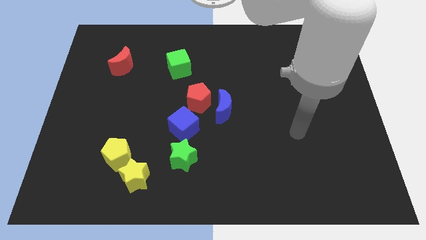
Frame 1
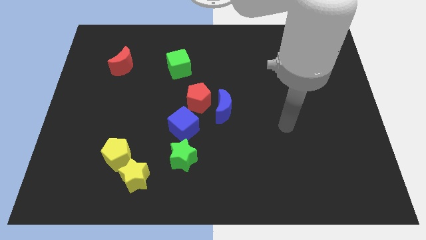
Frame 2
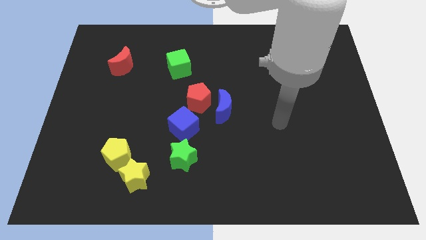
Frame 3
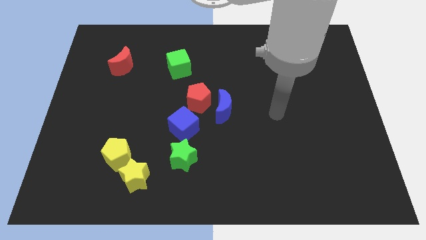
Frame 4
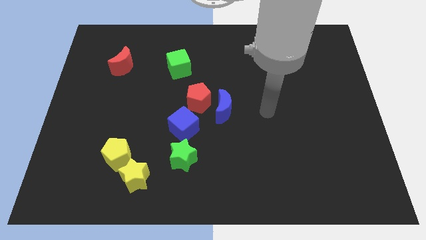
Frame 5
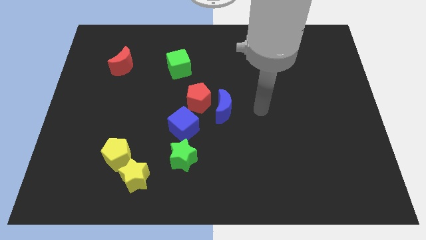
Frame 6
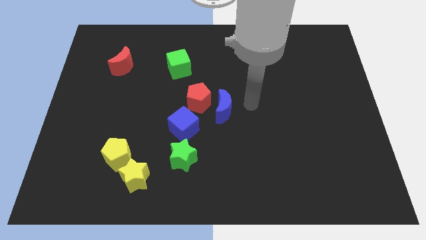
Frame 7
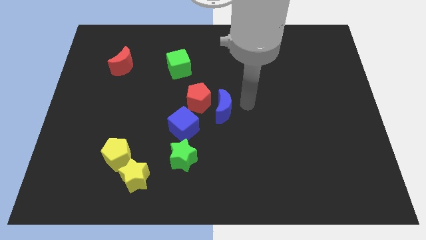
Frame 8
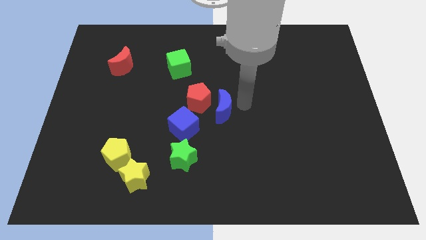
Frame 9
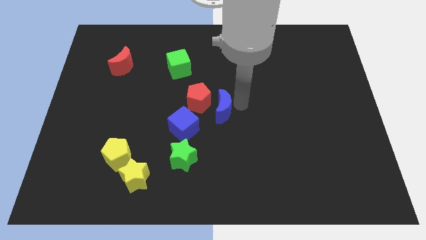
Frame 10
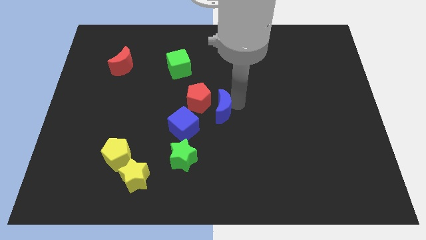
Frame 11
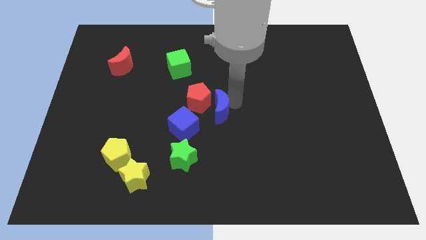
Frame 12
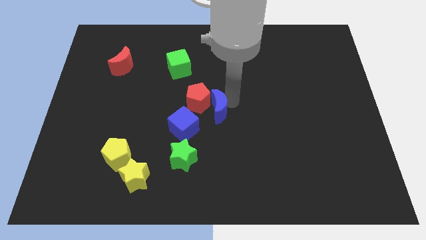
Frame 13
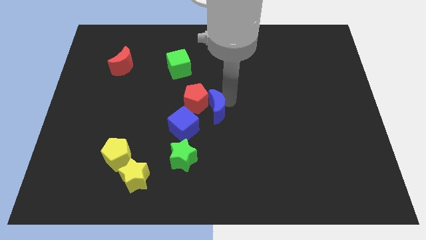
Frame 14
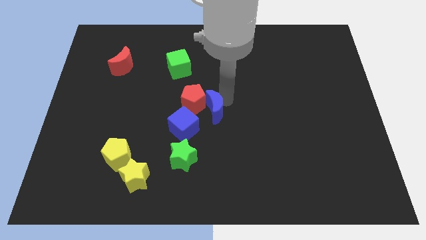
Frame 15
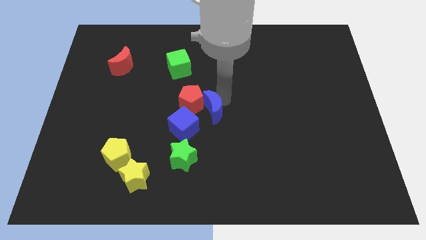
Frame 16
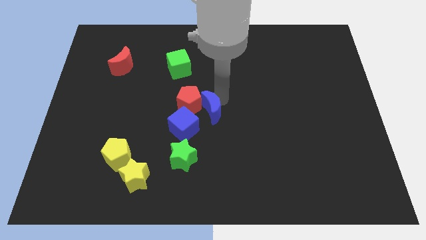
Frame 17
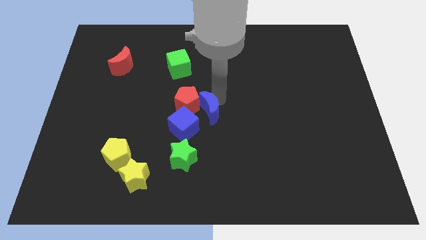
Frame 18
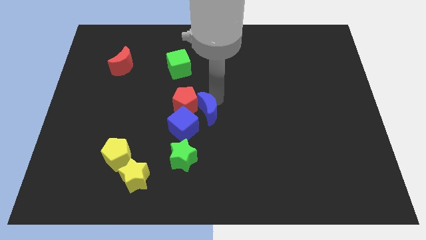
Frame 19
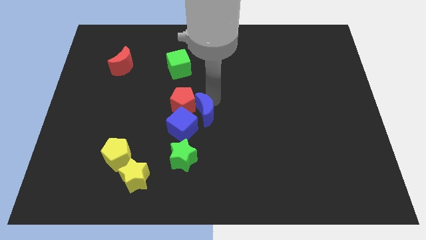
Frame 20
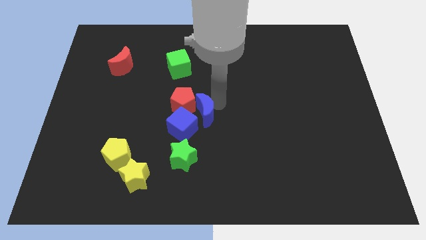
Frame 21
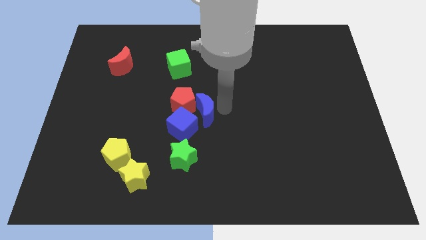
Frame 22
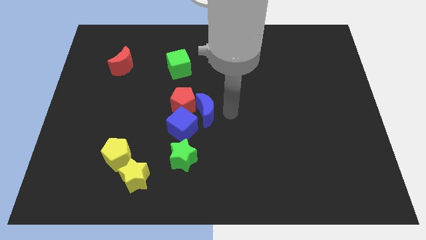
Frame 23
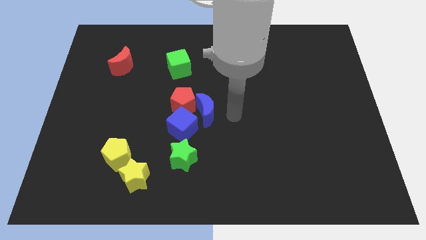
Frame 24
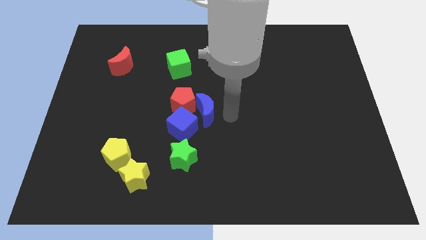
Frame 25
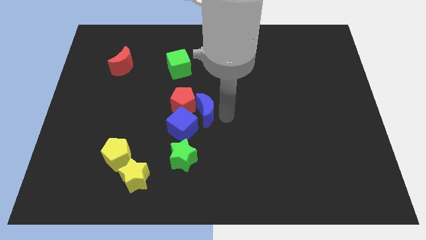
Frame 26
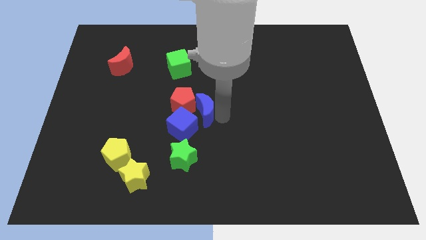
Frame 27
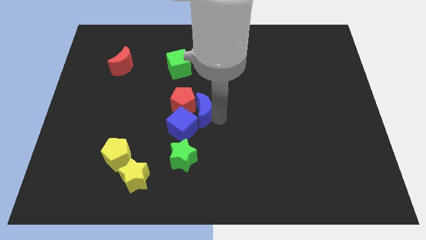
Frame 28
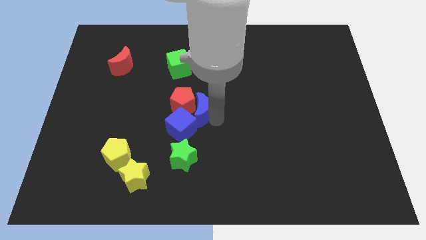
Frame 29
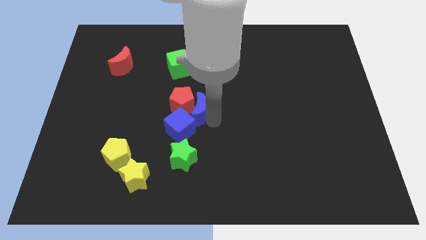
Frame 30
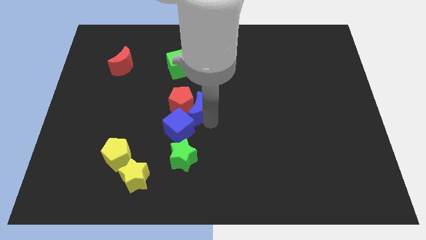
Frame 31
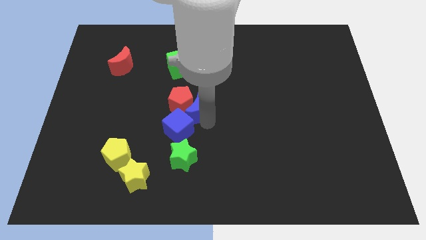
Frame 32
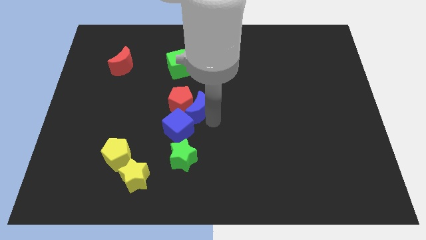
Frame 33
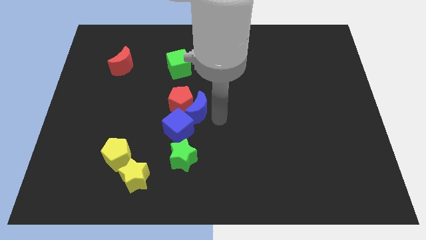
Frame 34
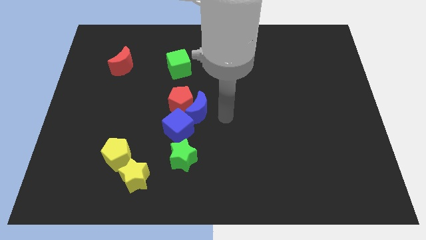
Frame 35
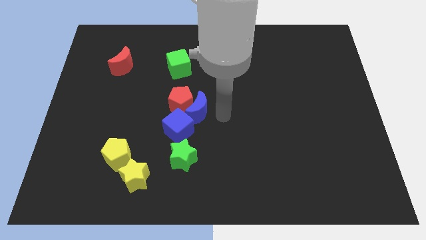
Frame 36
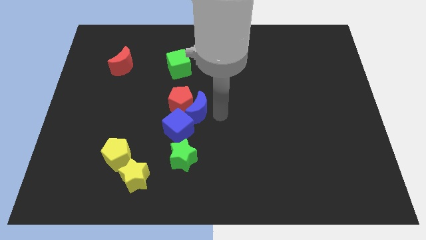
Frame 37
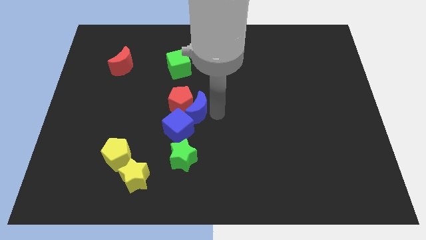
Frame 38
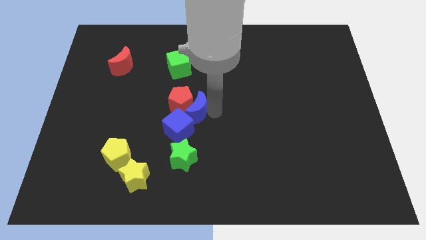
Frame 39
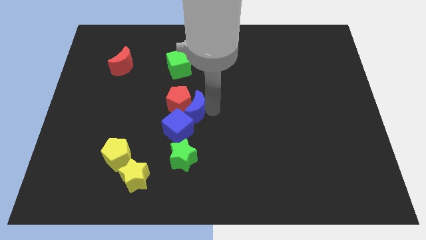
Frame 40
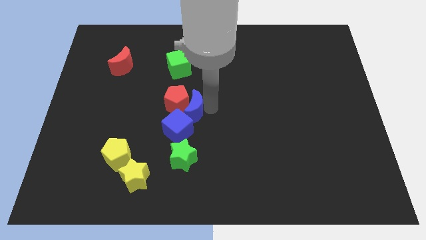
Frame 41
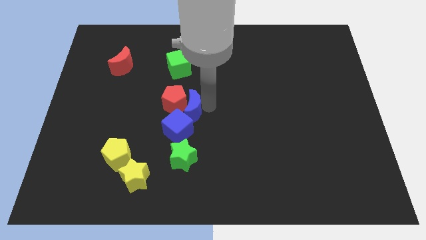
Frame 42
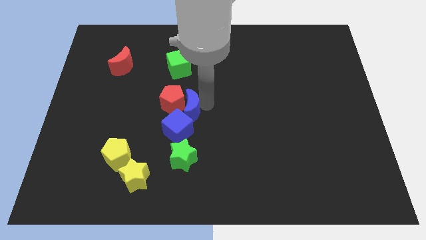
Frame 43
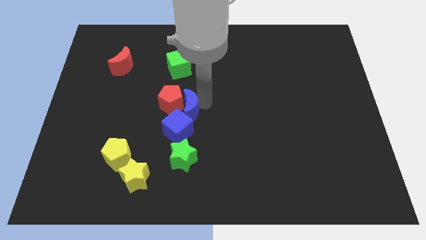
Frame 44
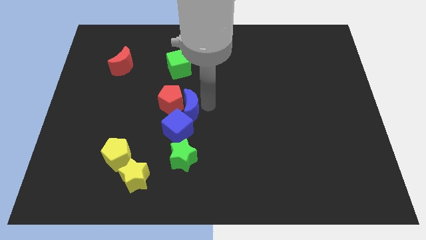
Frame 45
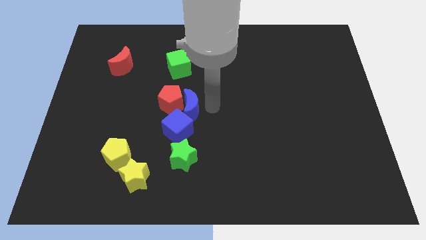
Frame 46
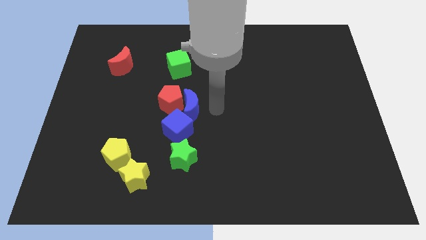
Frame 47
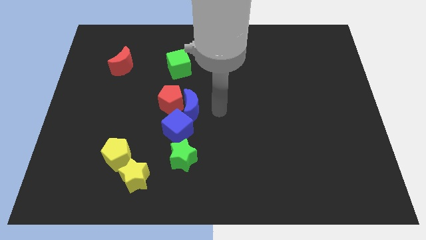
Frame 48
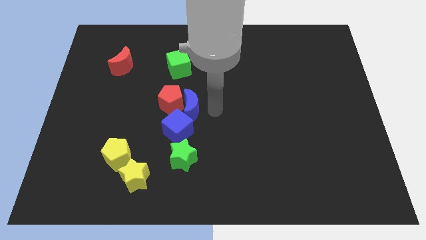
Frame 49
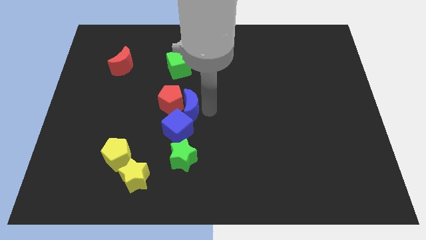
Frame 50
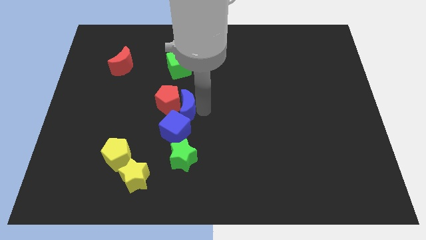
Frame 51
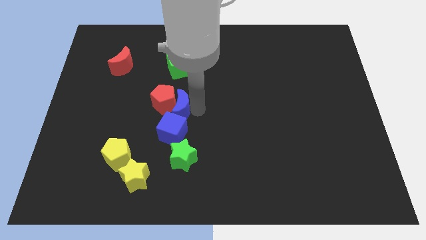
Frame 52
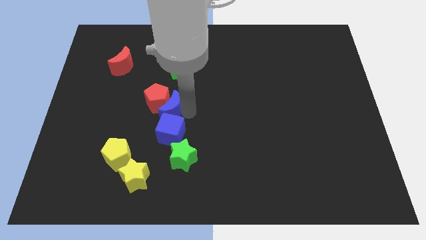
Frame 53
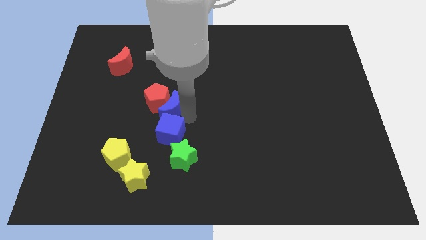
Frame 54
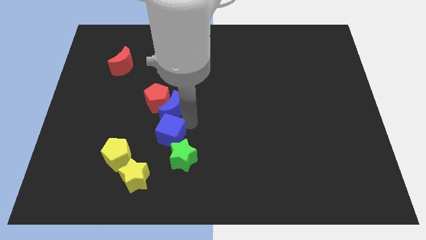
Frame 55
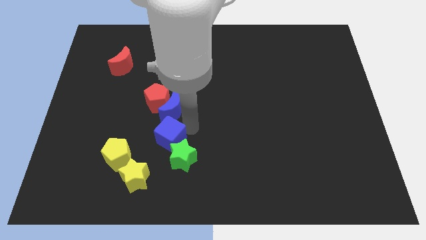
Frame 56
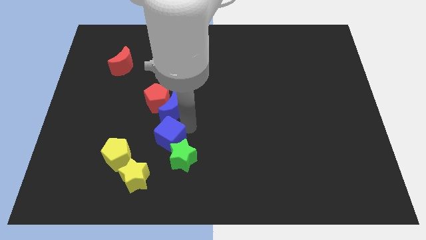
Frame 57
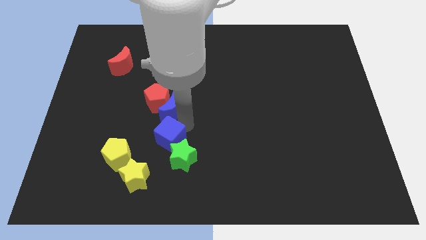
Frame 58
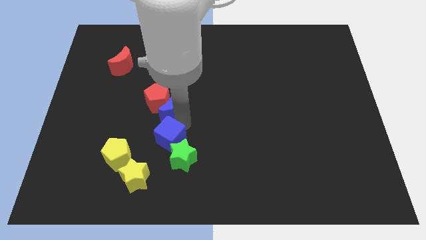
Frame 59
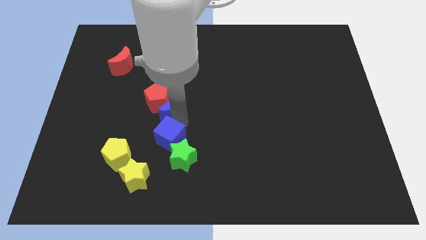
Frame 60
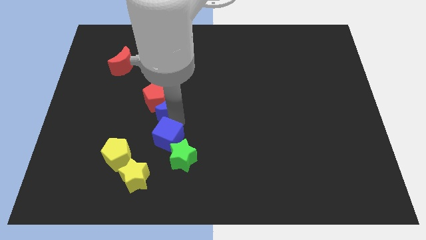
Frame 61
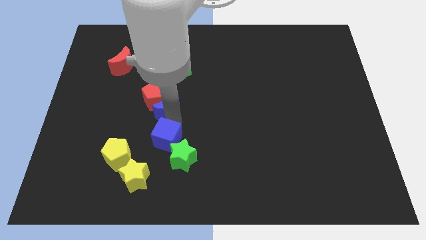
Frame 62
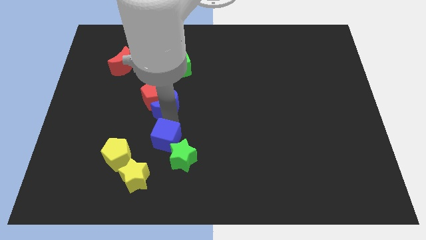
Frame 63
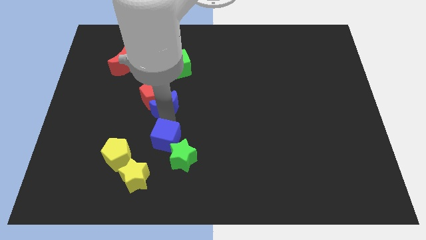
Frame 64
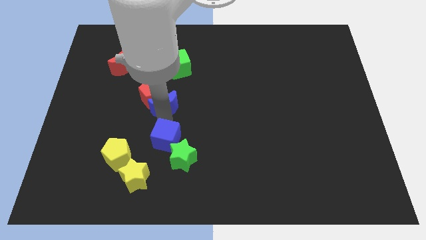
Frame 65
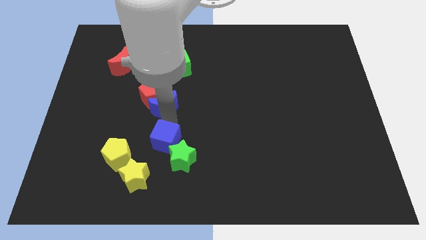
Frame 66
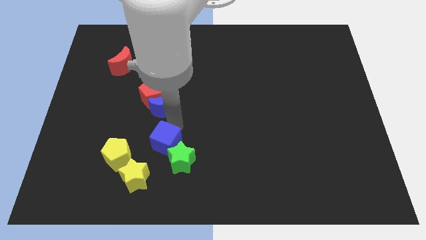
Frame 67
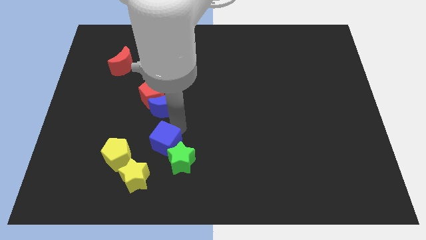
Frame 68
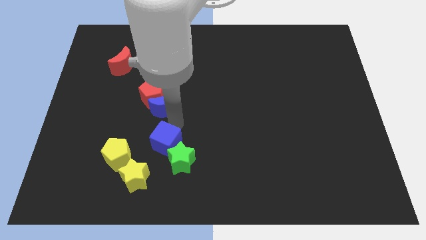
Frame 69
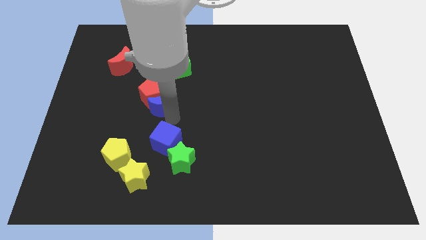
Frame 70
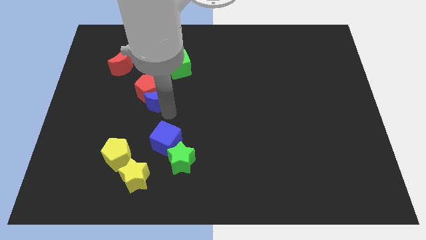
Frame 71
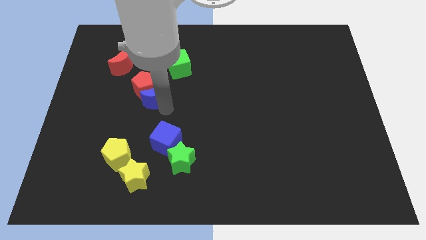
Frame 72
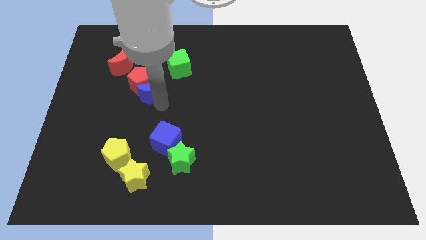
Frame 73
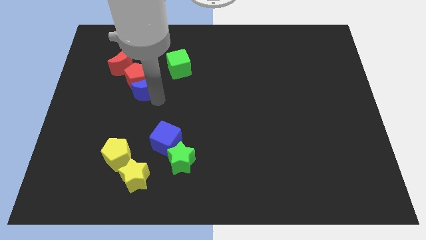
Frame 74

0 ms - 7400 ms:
put the blue moon to the bottom right side of the red moon
